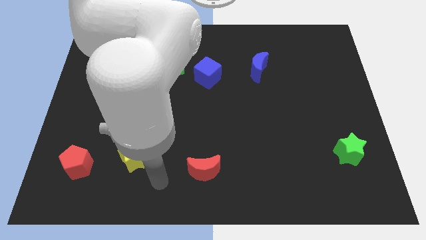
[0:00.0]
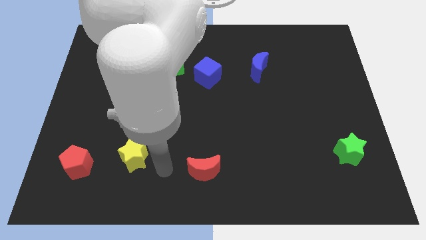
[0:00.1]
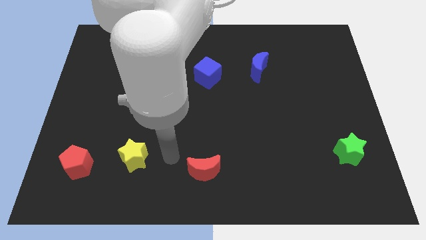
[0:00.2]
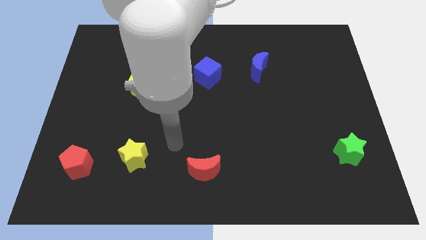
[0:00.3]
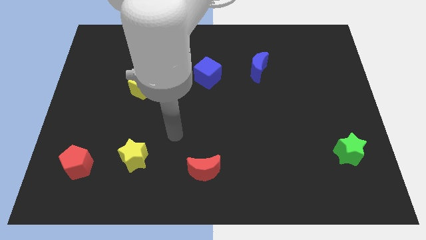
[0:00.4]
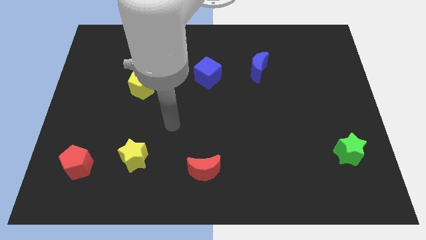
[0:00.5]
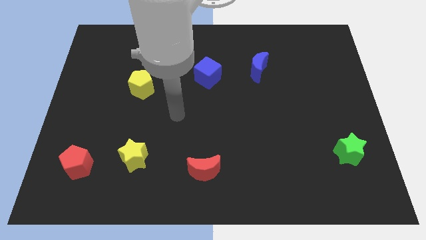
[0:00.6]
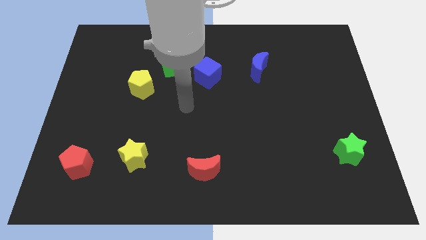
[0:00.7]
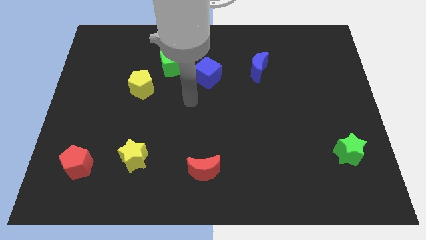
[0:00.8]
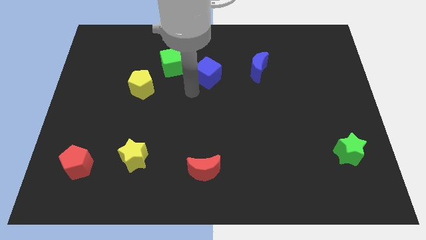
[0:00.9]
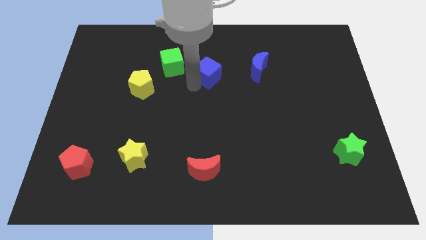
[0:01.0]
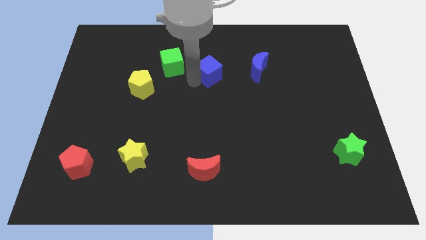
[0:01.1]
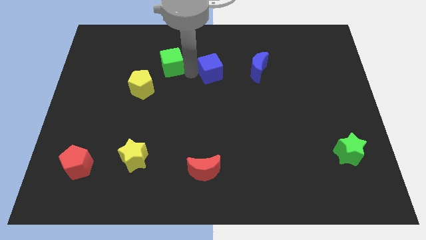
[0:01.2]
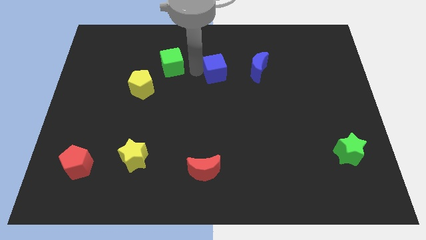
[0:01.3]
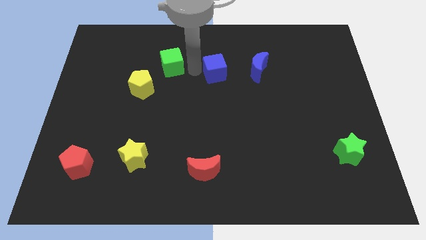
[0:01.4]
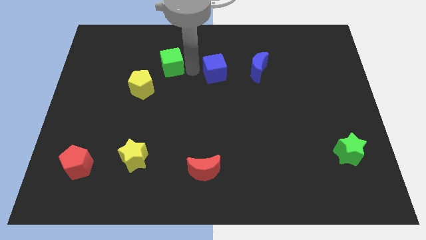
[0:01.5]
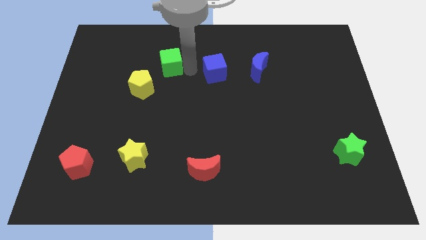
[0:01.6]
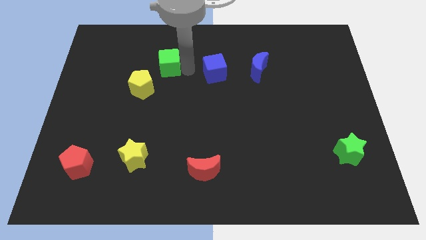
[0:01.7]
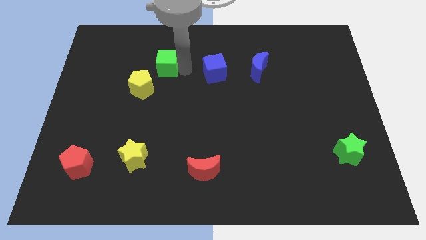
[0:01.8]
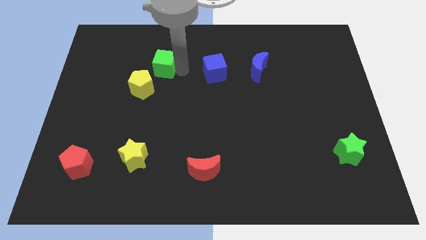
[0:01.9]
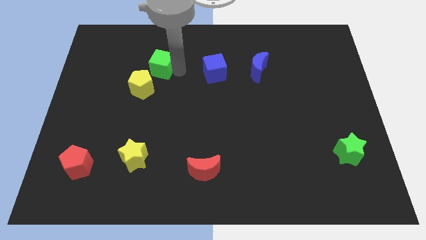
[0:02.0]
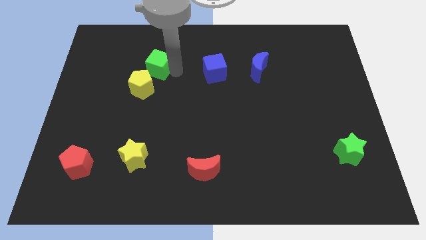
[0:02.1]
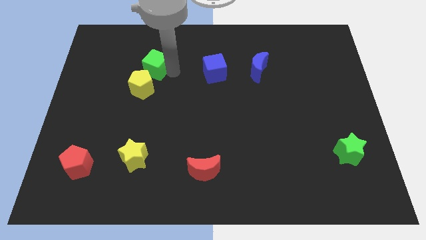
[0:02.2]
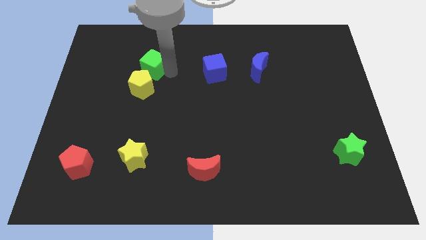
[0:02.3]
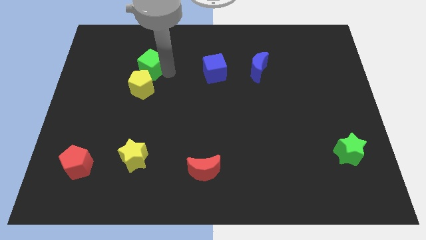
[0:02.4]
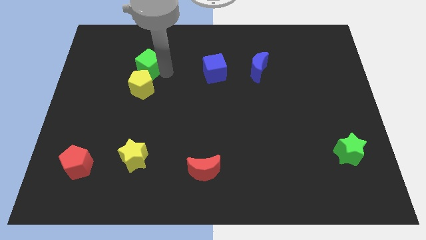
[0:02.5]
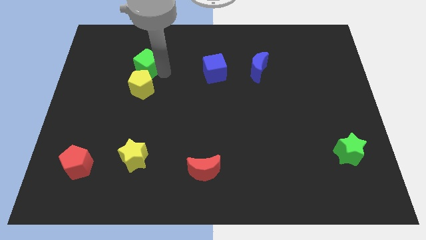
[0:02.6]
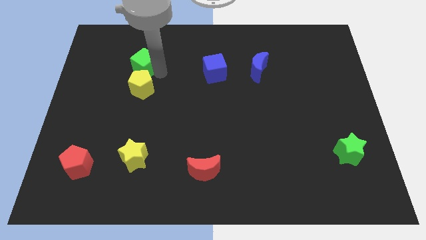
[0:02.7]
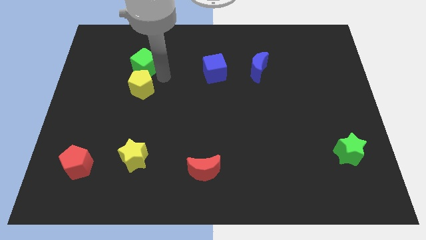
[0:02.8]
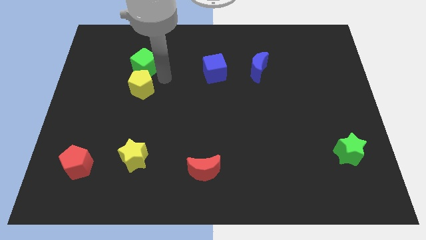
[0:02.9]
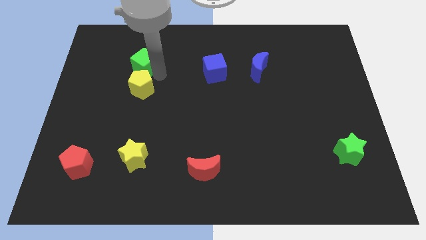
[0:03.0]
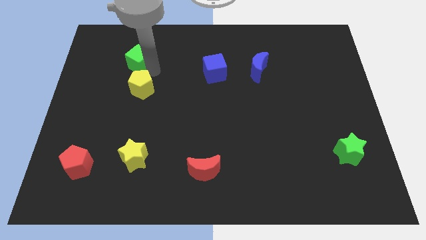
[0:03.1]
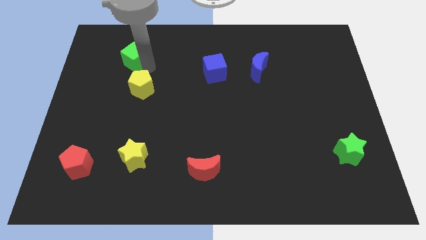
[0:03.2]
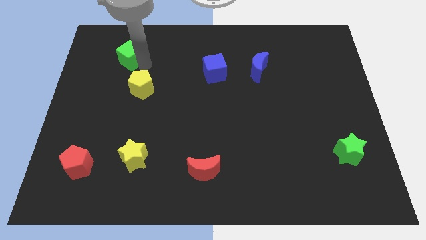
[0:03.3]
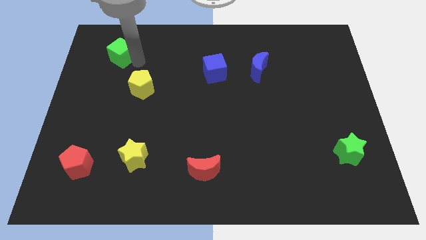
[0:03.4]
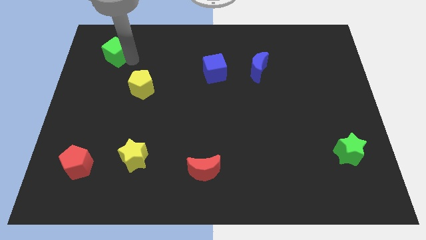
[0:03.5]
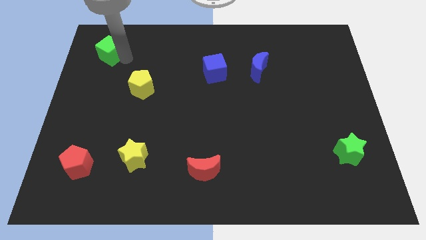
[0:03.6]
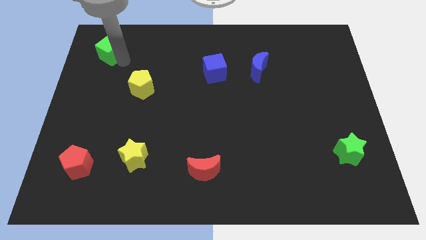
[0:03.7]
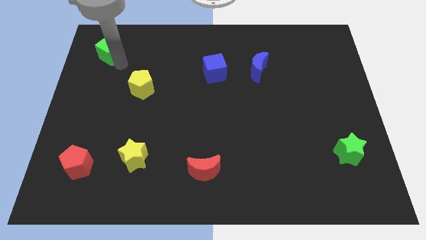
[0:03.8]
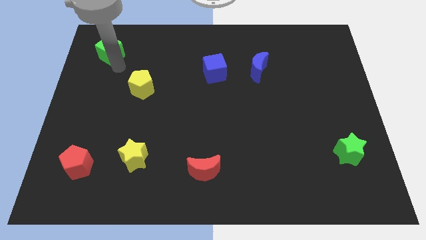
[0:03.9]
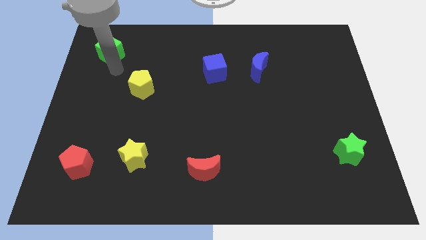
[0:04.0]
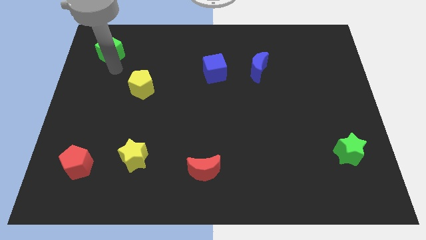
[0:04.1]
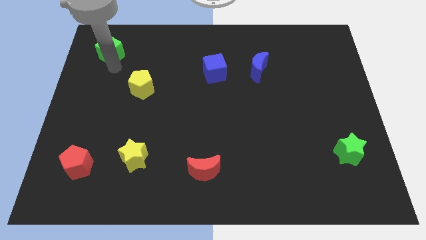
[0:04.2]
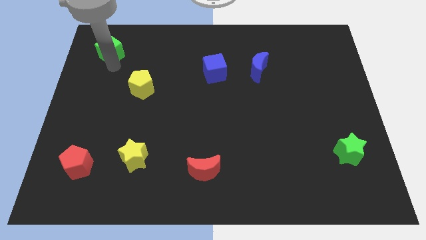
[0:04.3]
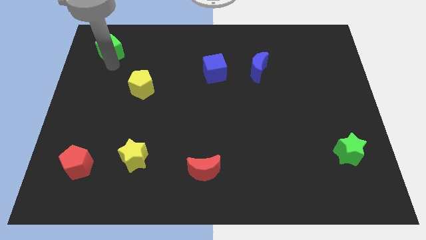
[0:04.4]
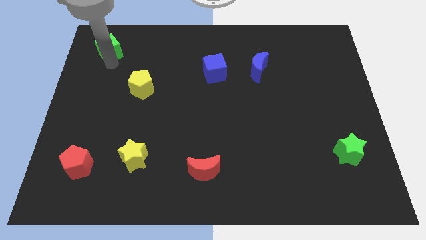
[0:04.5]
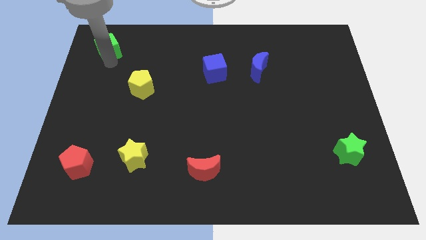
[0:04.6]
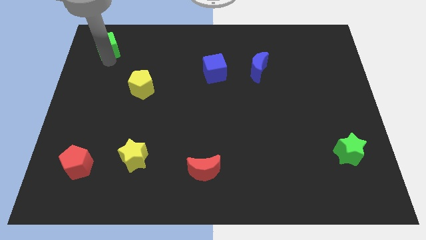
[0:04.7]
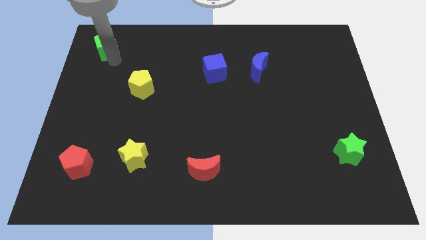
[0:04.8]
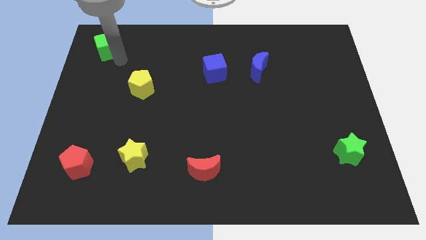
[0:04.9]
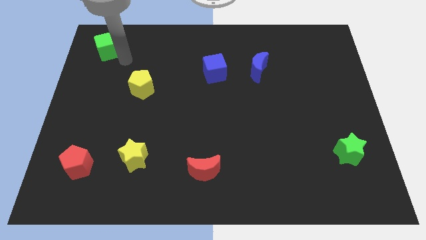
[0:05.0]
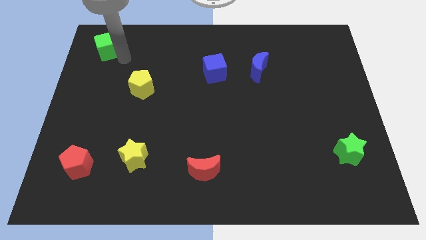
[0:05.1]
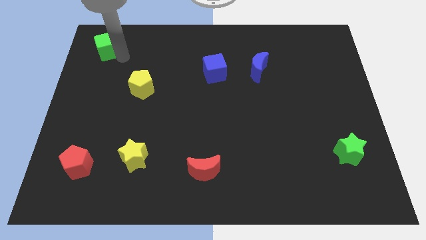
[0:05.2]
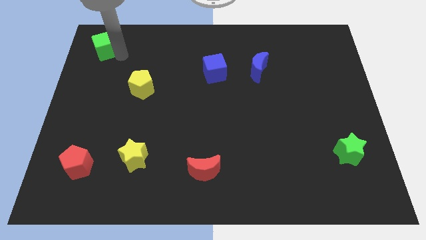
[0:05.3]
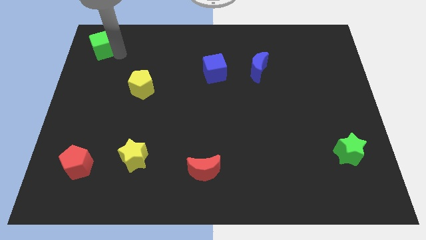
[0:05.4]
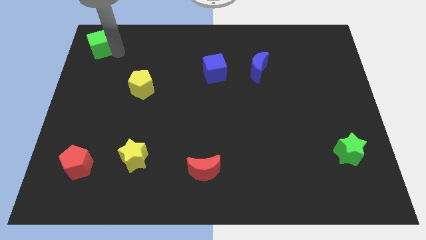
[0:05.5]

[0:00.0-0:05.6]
move the green cube to the top left

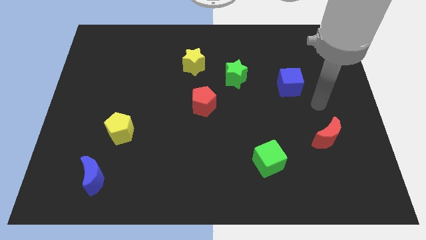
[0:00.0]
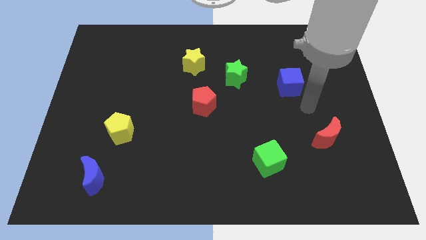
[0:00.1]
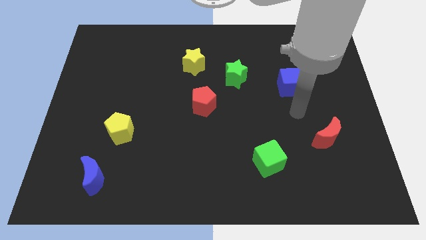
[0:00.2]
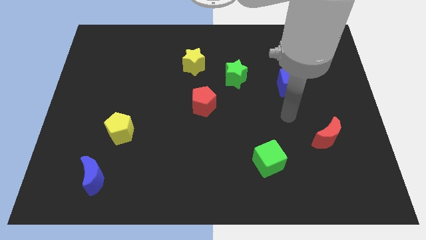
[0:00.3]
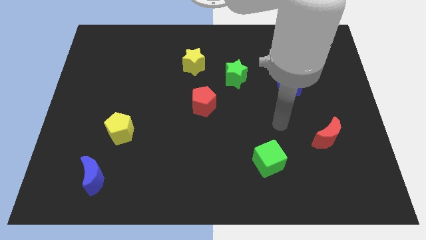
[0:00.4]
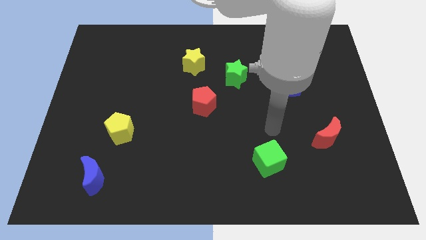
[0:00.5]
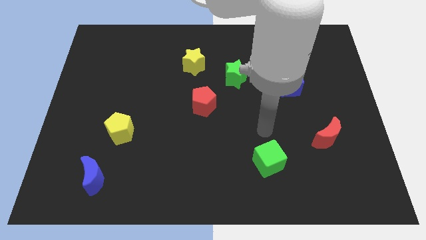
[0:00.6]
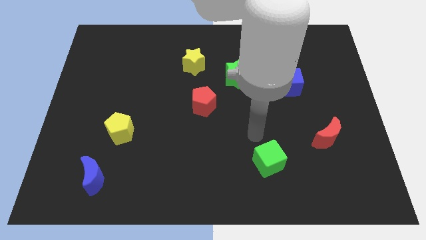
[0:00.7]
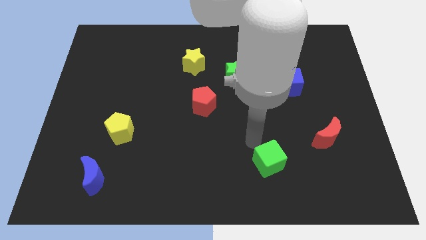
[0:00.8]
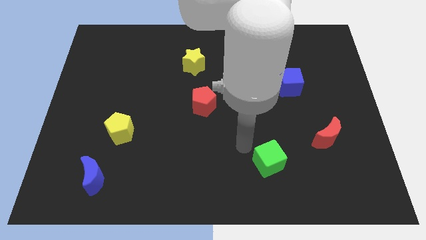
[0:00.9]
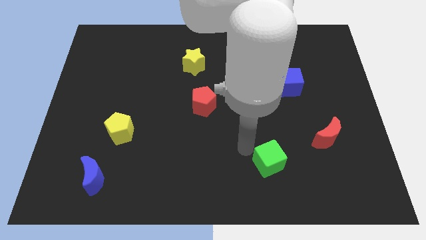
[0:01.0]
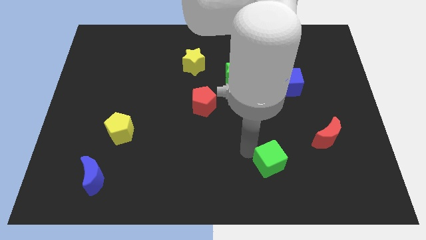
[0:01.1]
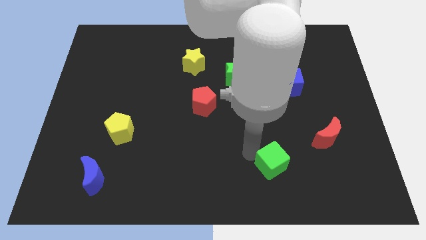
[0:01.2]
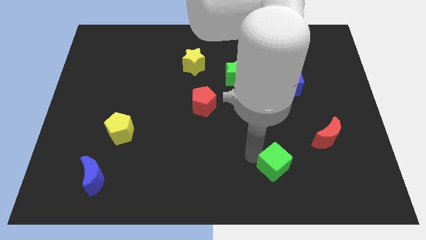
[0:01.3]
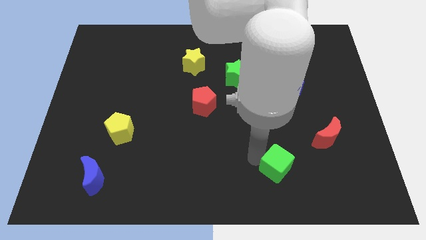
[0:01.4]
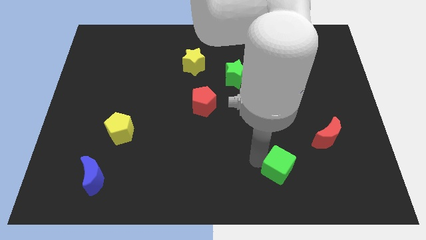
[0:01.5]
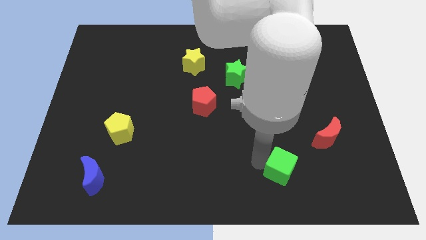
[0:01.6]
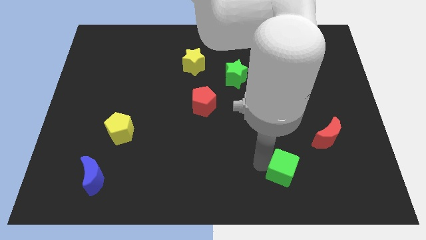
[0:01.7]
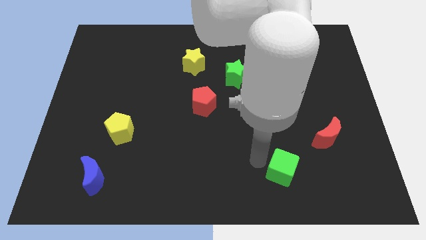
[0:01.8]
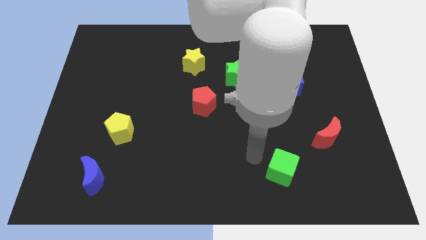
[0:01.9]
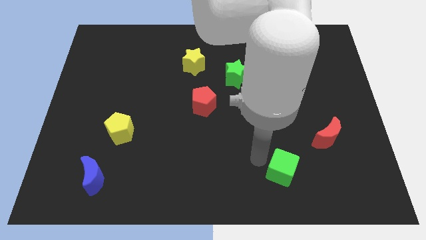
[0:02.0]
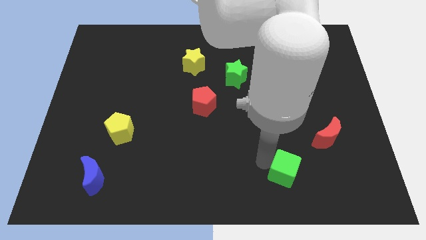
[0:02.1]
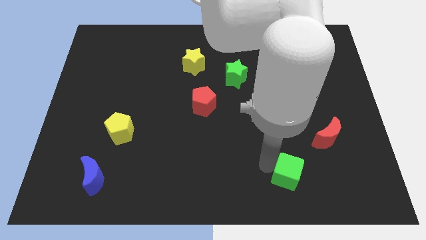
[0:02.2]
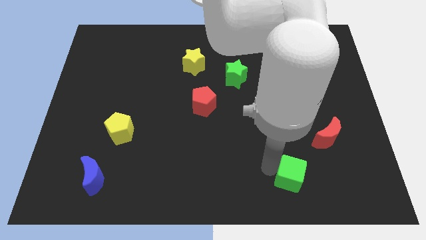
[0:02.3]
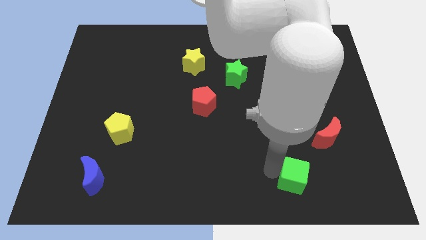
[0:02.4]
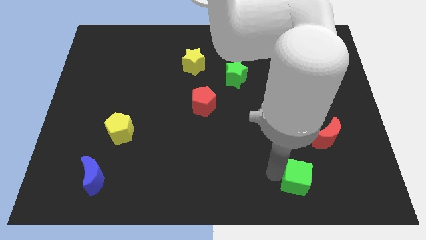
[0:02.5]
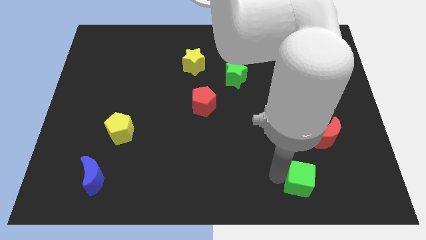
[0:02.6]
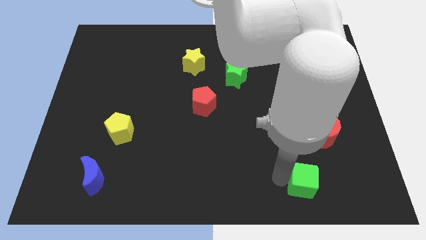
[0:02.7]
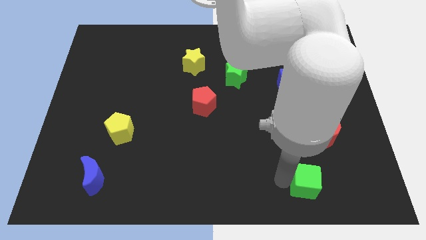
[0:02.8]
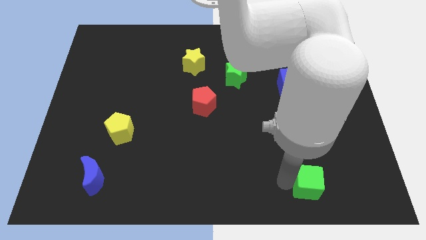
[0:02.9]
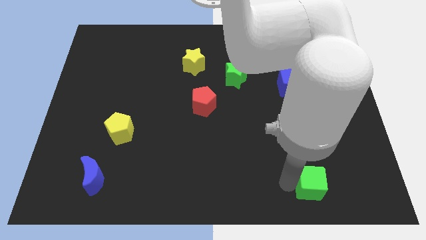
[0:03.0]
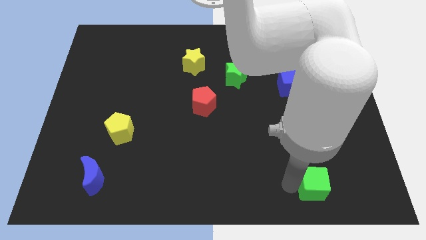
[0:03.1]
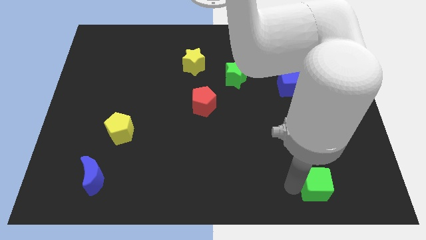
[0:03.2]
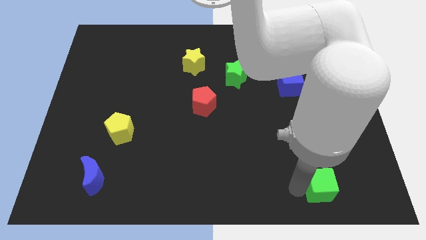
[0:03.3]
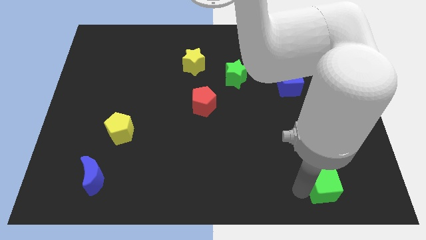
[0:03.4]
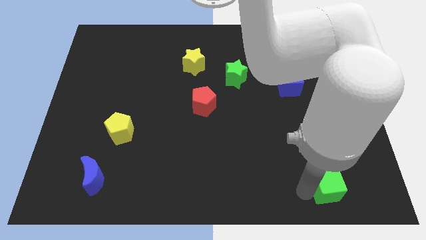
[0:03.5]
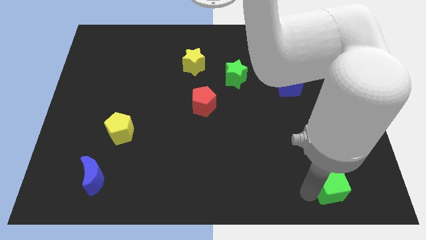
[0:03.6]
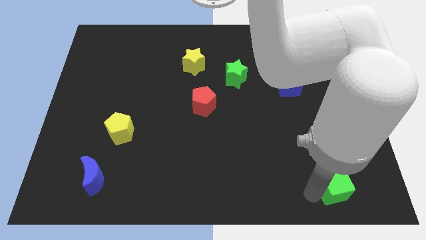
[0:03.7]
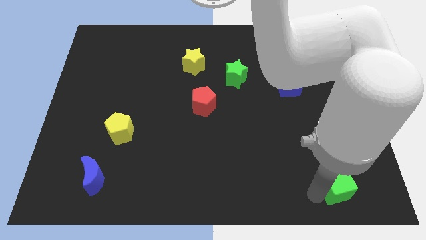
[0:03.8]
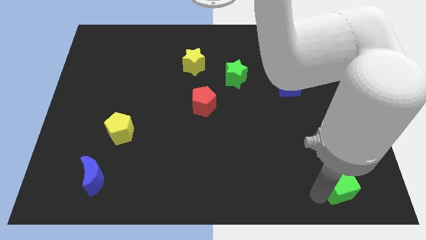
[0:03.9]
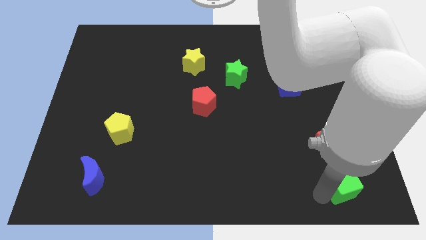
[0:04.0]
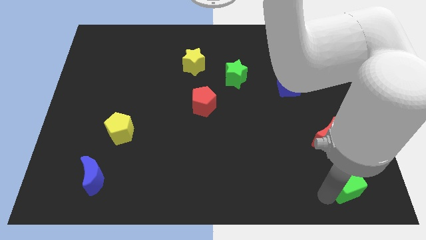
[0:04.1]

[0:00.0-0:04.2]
move the green cube to the lower right corner
